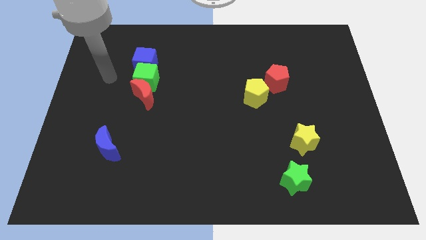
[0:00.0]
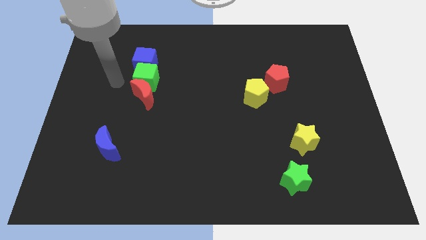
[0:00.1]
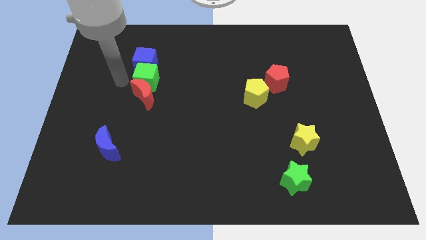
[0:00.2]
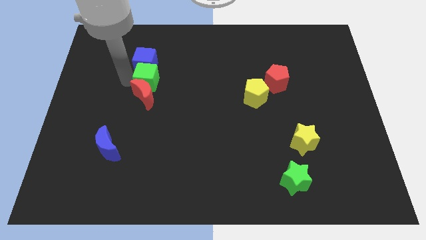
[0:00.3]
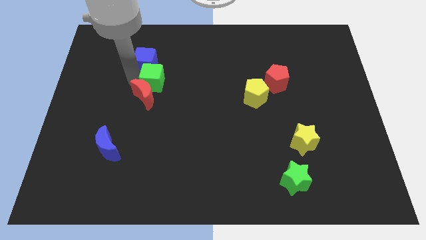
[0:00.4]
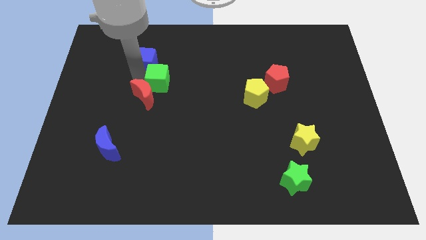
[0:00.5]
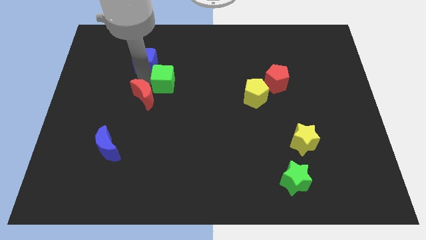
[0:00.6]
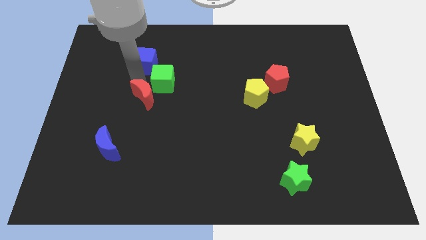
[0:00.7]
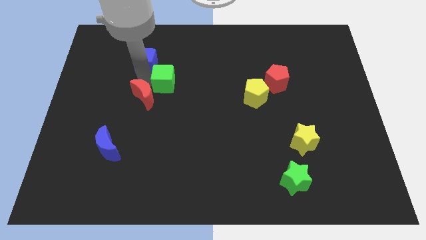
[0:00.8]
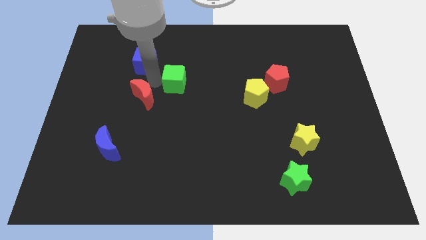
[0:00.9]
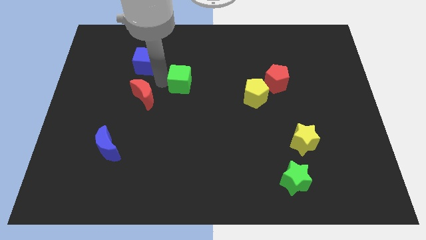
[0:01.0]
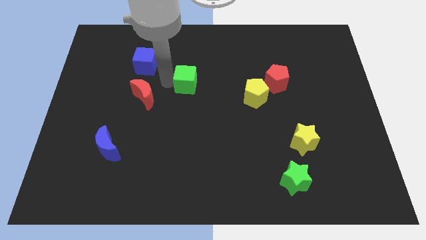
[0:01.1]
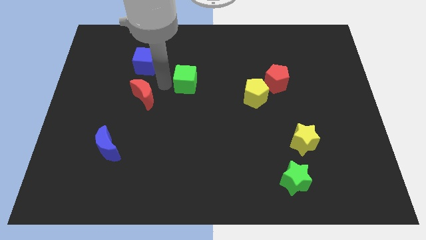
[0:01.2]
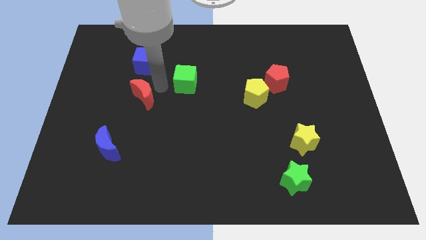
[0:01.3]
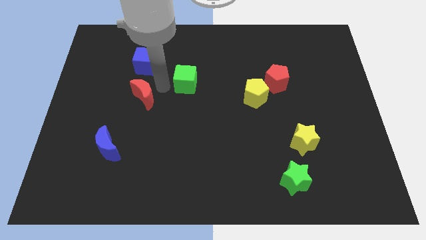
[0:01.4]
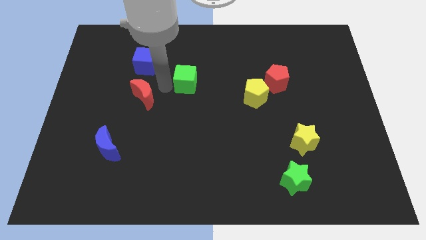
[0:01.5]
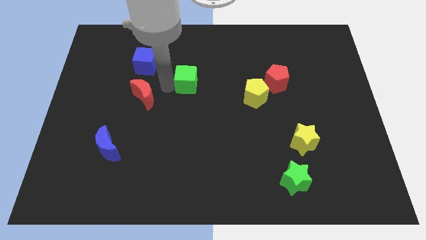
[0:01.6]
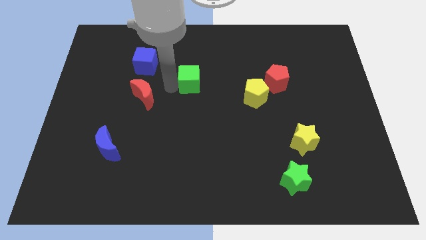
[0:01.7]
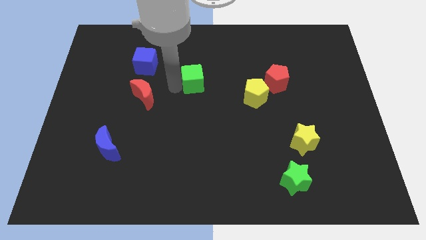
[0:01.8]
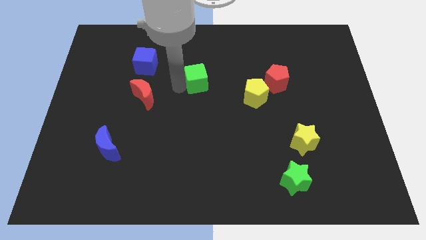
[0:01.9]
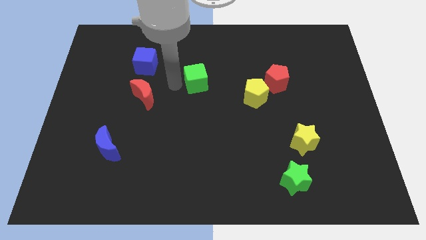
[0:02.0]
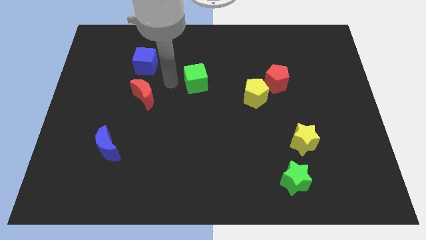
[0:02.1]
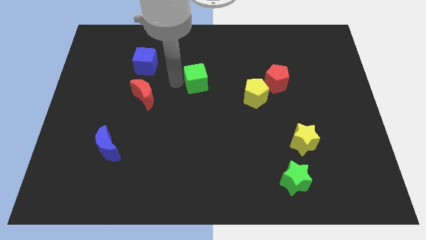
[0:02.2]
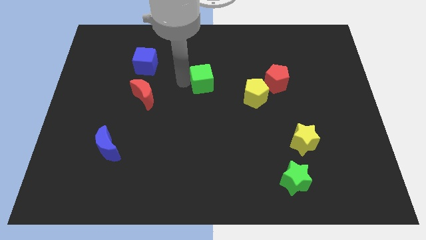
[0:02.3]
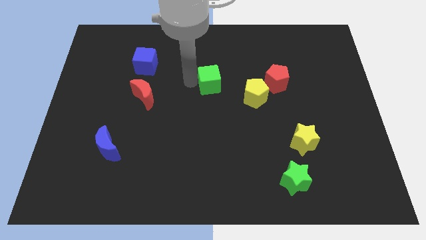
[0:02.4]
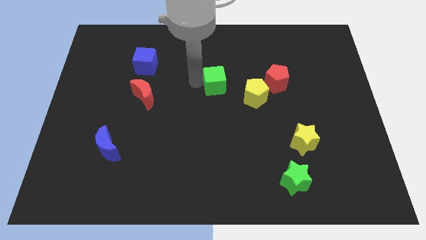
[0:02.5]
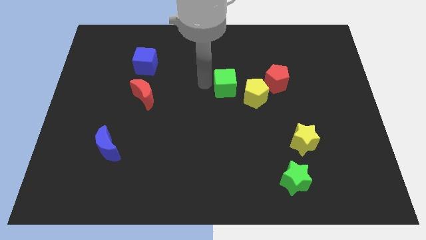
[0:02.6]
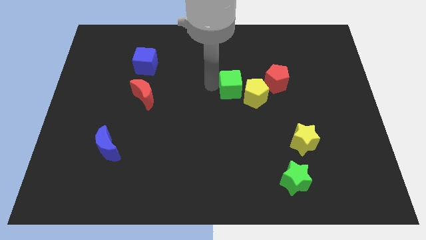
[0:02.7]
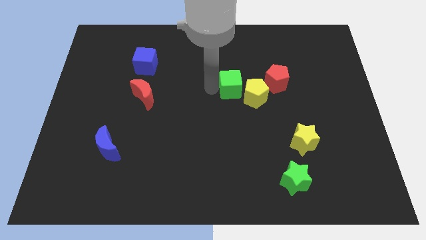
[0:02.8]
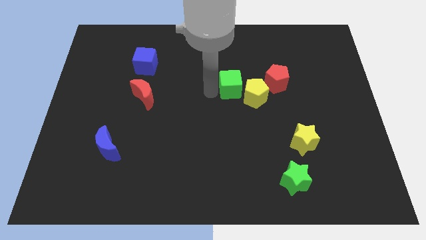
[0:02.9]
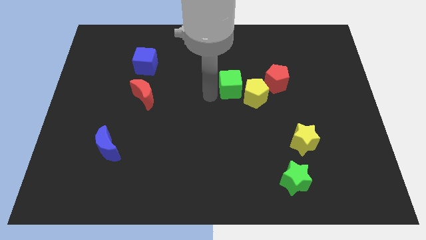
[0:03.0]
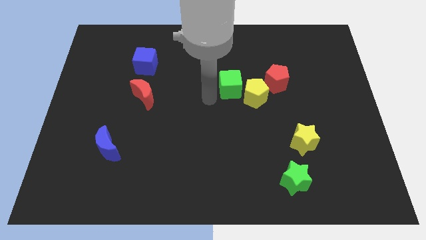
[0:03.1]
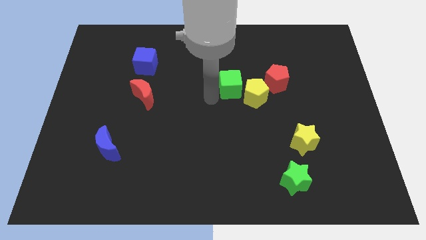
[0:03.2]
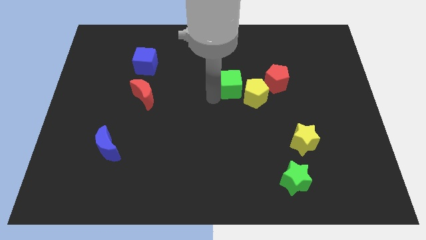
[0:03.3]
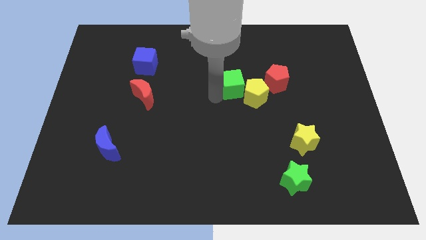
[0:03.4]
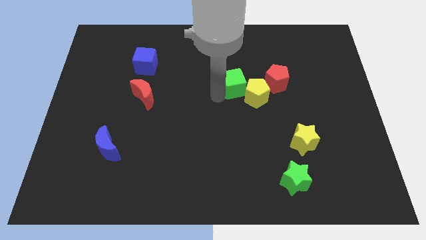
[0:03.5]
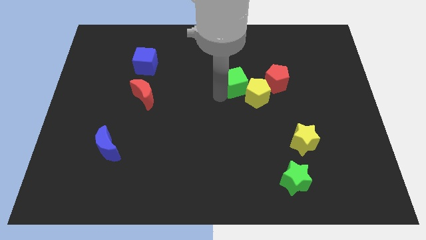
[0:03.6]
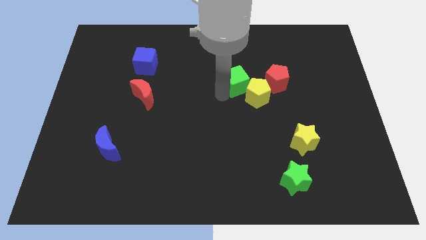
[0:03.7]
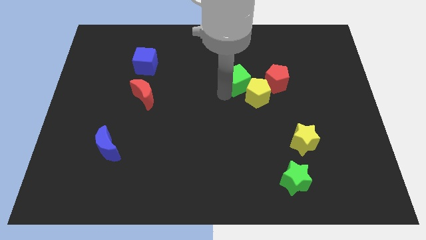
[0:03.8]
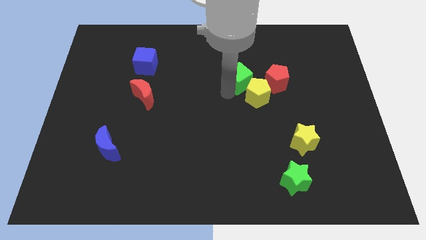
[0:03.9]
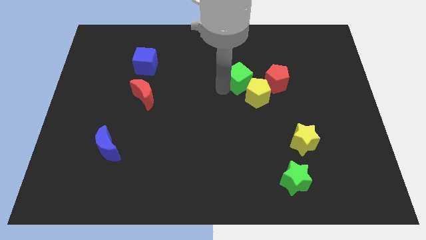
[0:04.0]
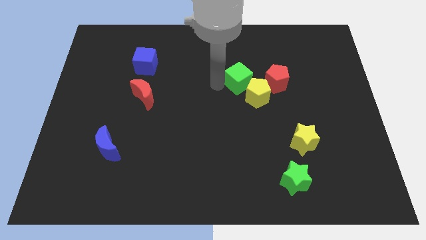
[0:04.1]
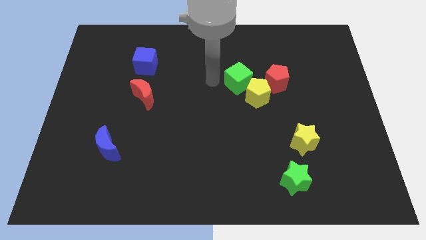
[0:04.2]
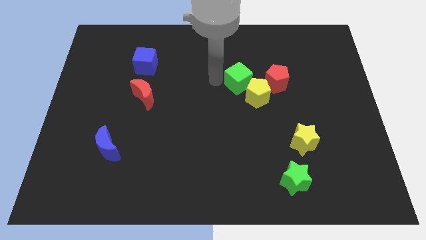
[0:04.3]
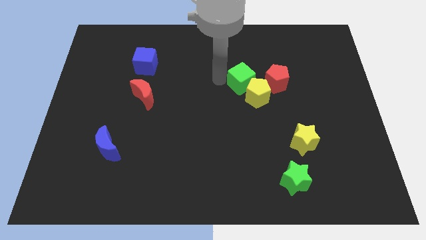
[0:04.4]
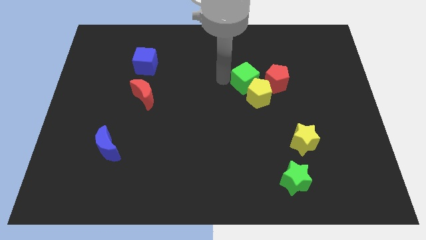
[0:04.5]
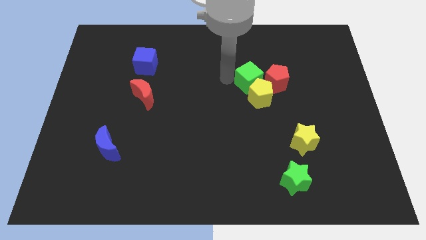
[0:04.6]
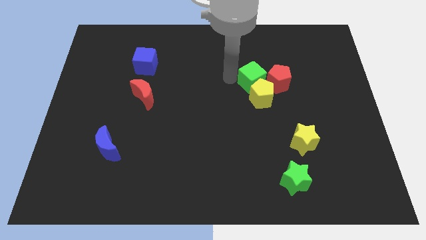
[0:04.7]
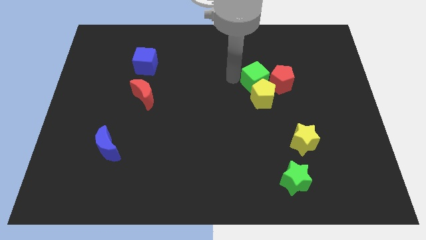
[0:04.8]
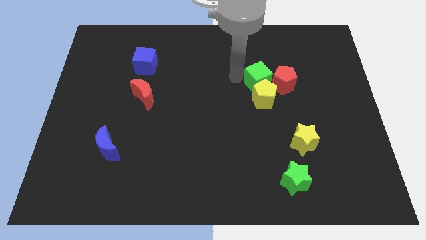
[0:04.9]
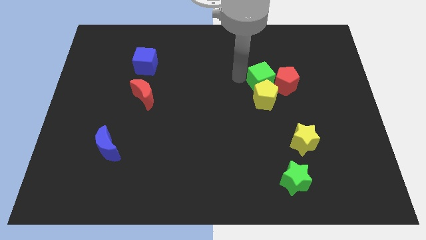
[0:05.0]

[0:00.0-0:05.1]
slide the green cube to the red pentagon

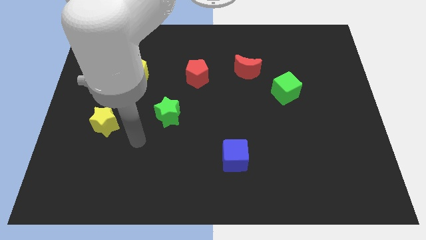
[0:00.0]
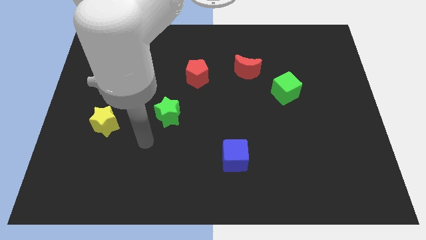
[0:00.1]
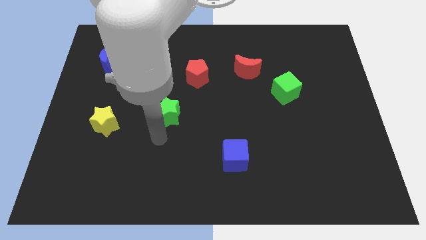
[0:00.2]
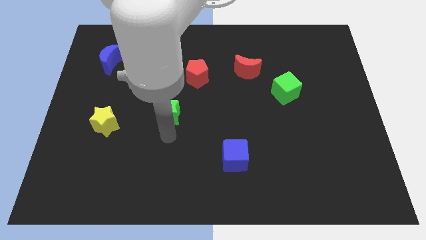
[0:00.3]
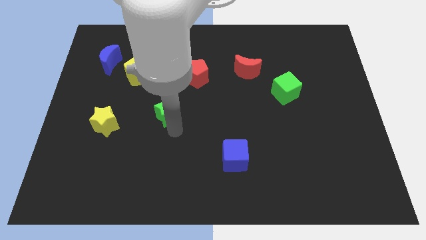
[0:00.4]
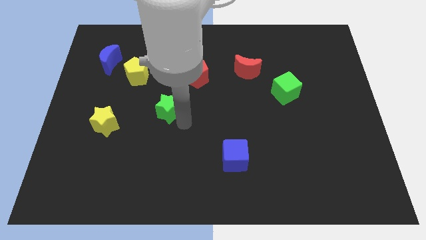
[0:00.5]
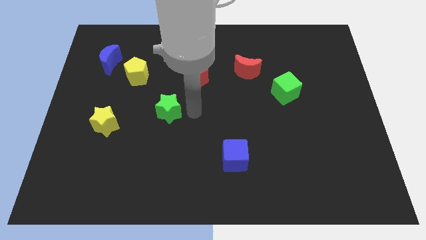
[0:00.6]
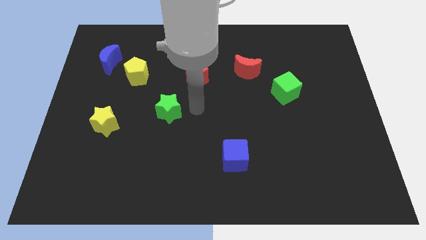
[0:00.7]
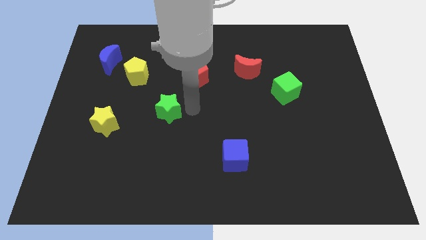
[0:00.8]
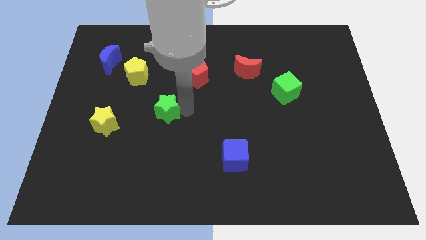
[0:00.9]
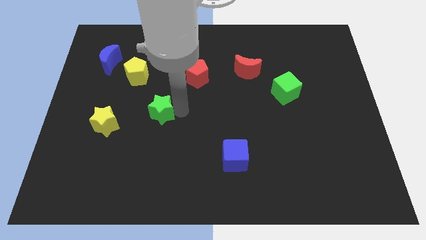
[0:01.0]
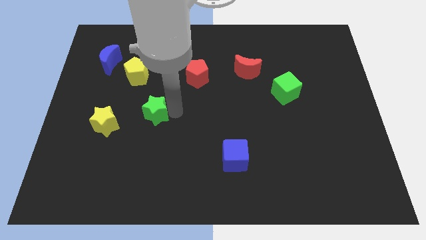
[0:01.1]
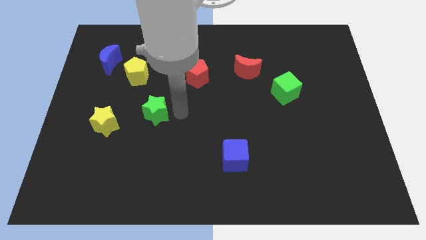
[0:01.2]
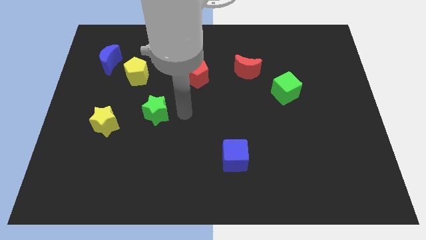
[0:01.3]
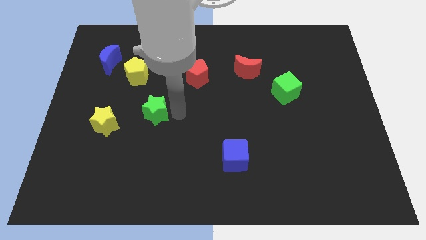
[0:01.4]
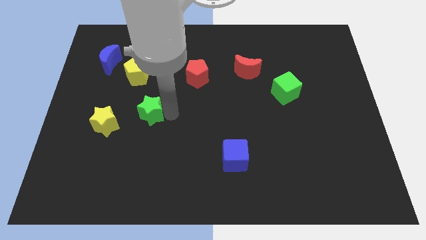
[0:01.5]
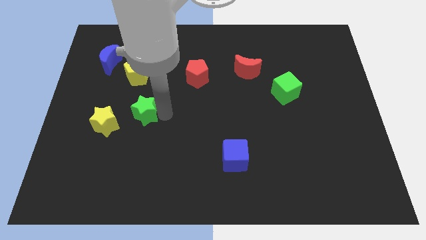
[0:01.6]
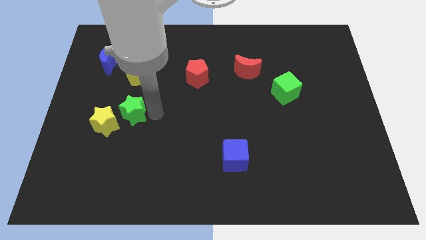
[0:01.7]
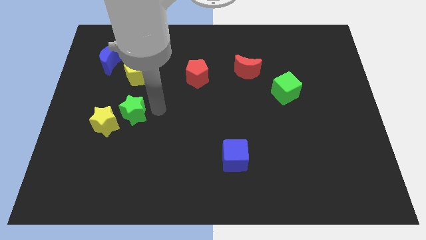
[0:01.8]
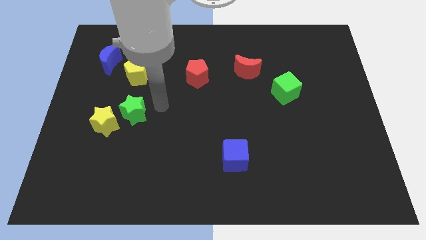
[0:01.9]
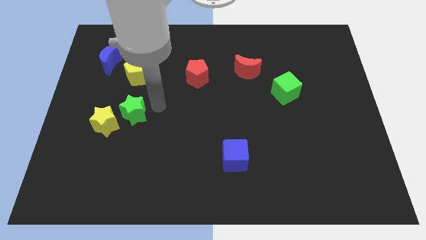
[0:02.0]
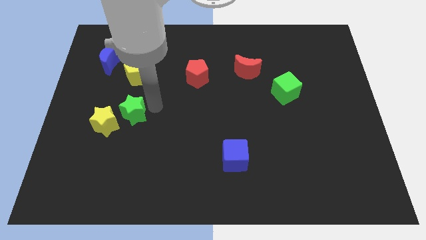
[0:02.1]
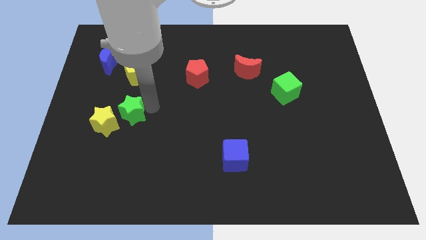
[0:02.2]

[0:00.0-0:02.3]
push the green star towards the yellow star
